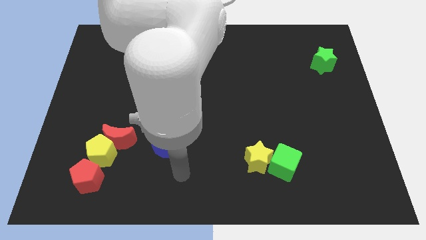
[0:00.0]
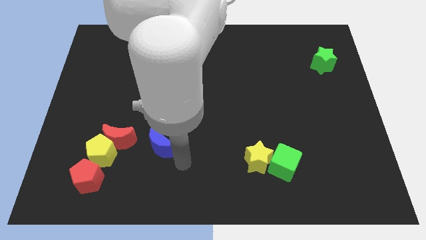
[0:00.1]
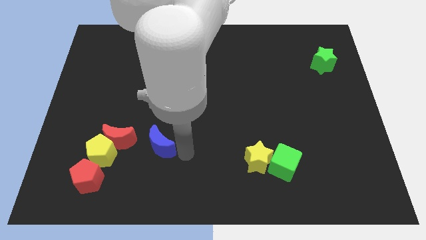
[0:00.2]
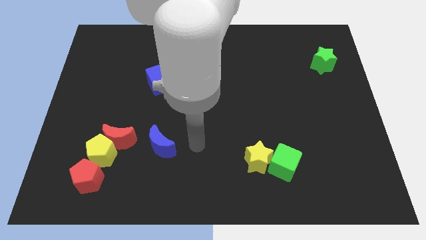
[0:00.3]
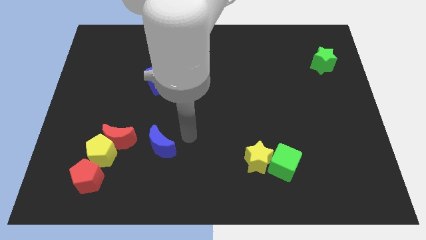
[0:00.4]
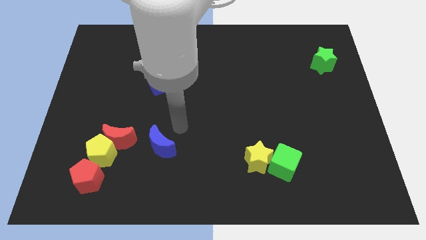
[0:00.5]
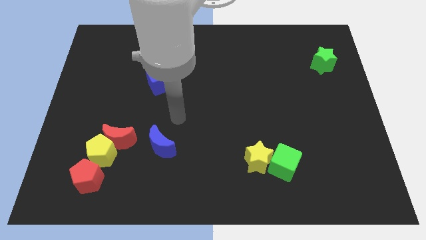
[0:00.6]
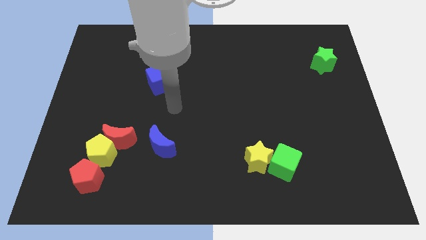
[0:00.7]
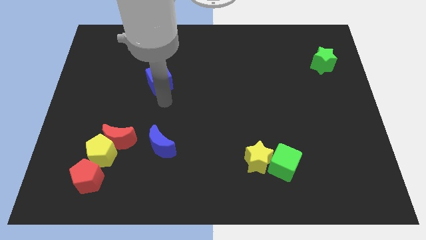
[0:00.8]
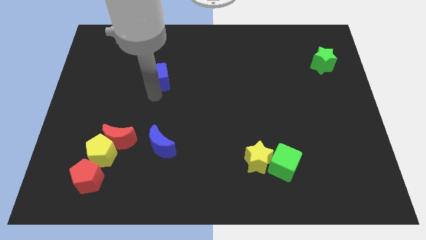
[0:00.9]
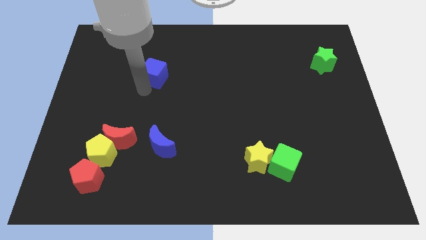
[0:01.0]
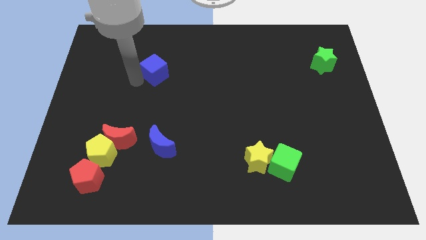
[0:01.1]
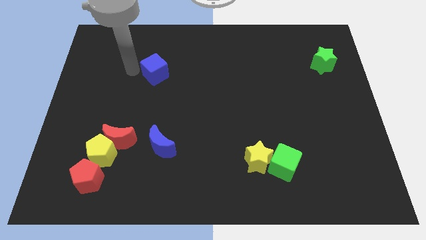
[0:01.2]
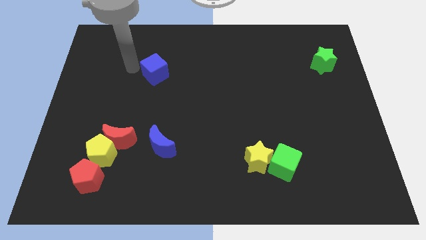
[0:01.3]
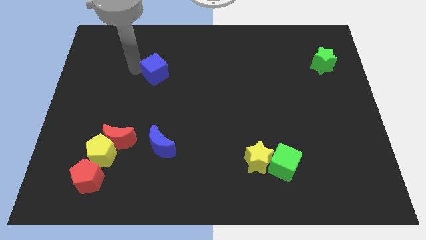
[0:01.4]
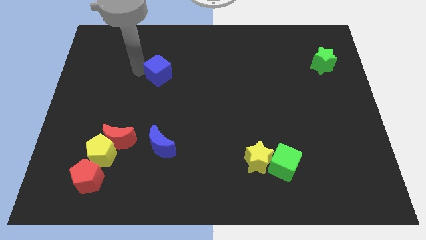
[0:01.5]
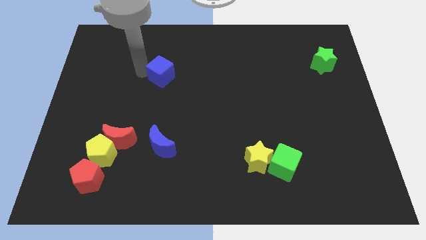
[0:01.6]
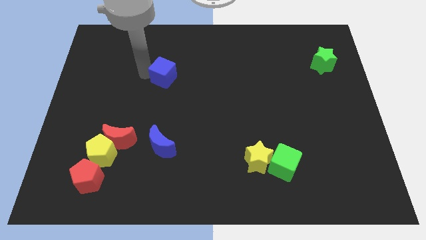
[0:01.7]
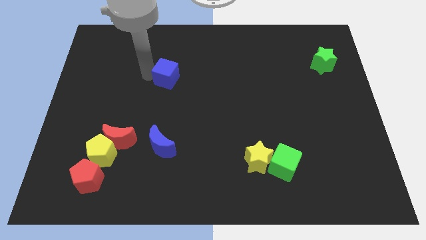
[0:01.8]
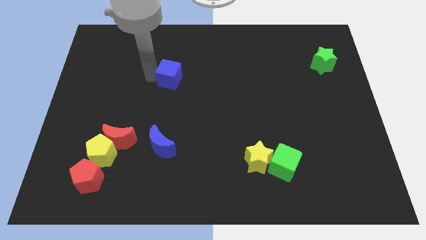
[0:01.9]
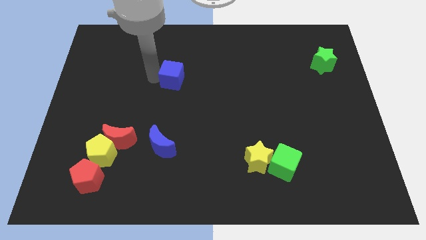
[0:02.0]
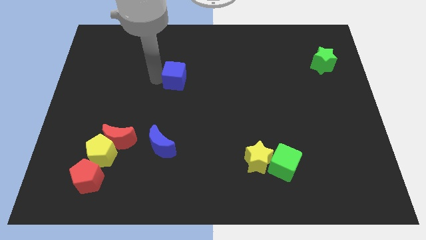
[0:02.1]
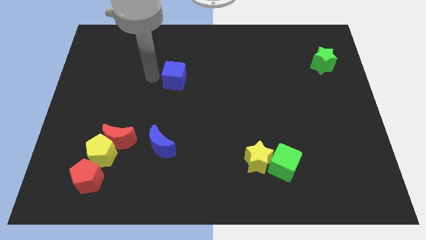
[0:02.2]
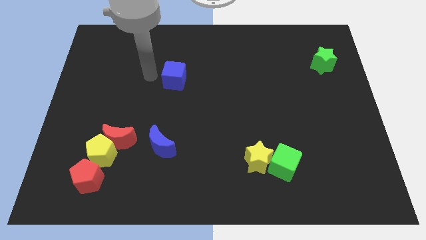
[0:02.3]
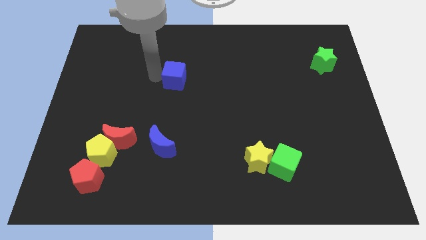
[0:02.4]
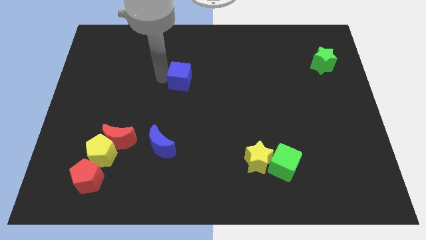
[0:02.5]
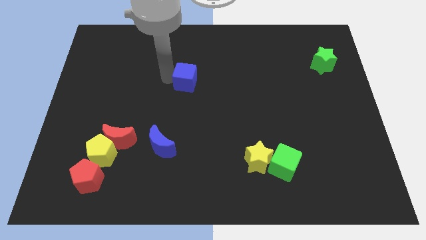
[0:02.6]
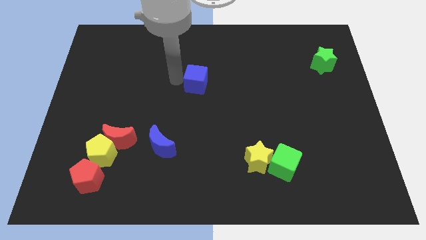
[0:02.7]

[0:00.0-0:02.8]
slightly push the blue cube right

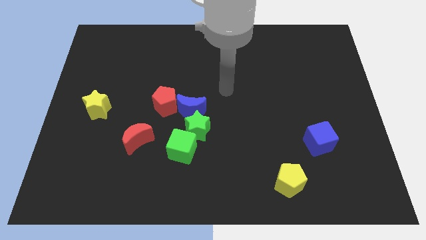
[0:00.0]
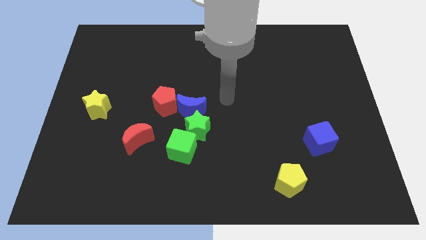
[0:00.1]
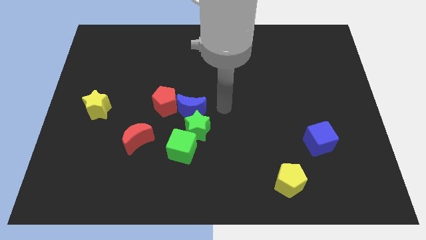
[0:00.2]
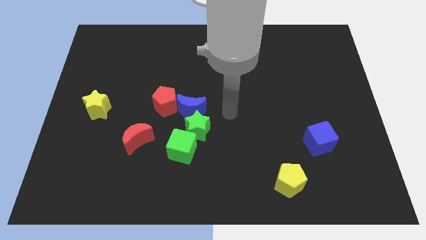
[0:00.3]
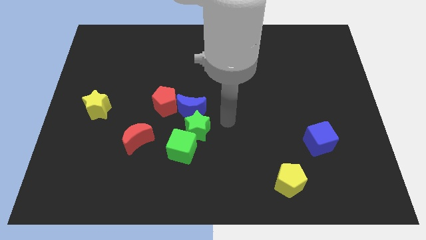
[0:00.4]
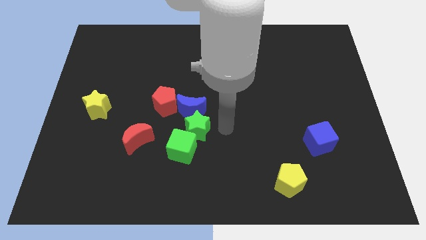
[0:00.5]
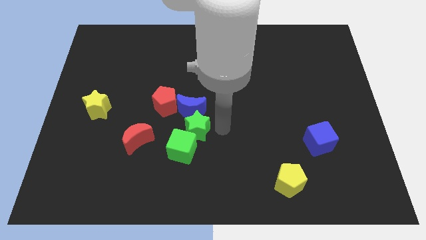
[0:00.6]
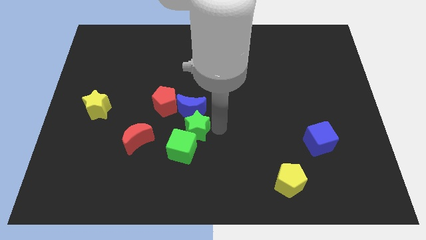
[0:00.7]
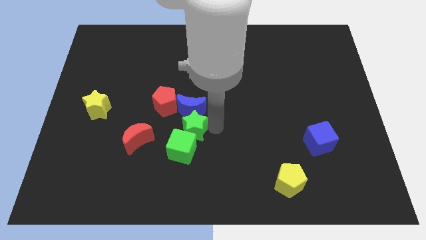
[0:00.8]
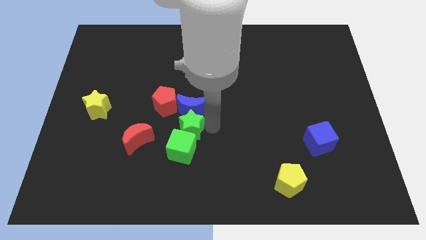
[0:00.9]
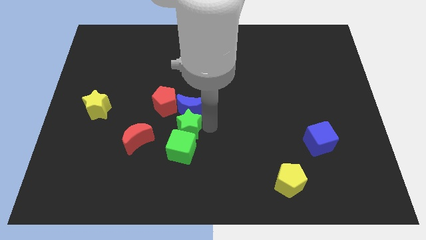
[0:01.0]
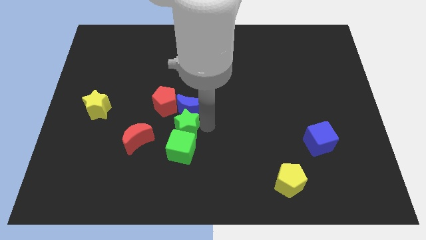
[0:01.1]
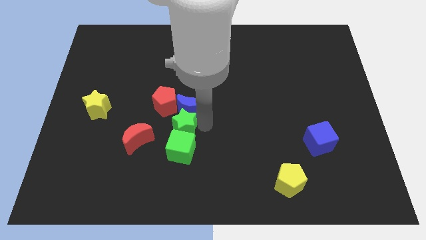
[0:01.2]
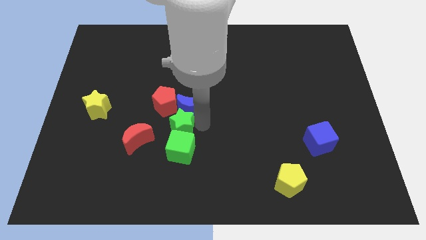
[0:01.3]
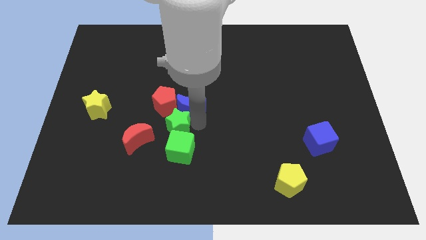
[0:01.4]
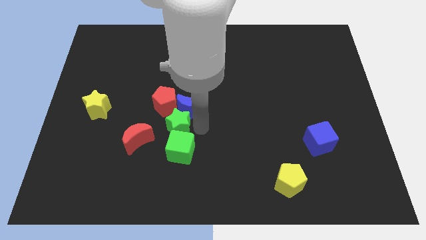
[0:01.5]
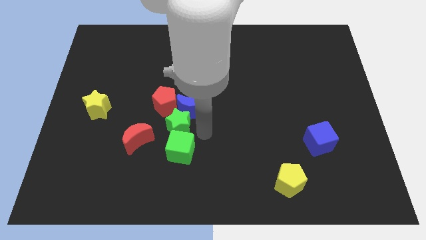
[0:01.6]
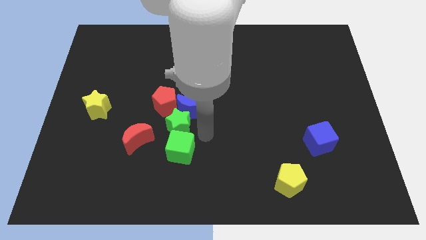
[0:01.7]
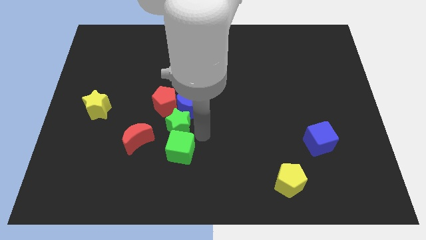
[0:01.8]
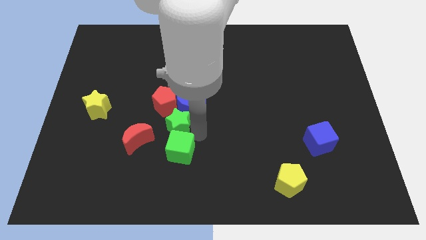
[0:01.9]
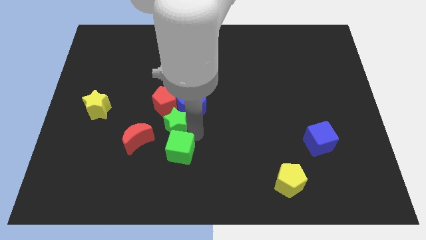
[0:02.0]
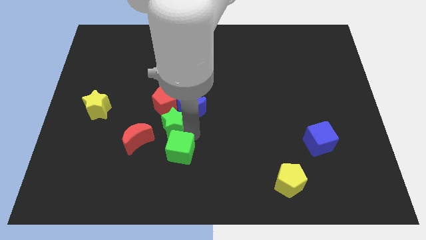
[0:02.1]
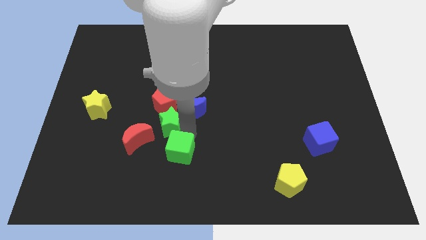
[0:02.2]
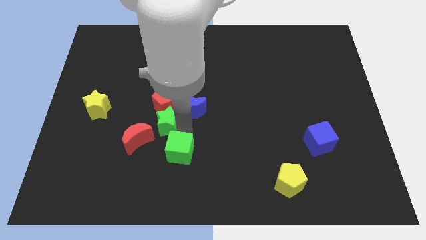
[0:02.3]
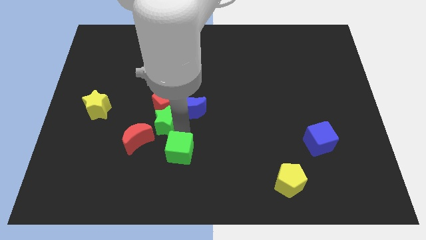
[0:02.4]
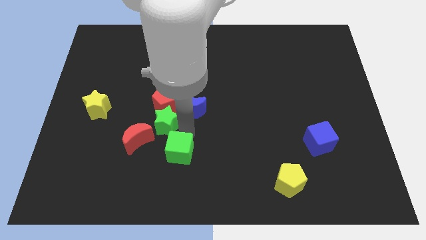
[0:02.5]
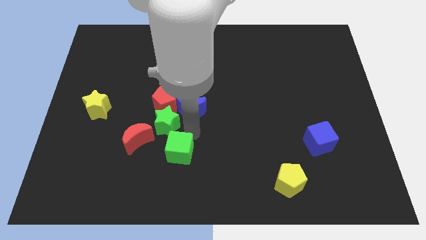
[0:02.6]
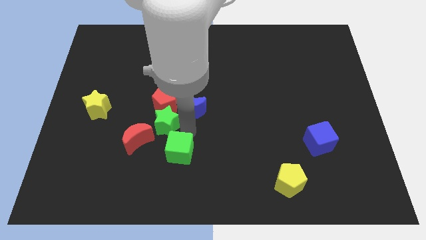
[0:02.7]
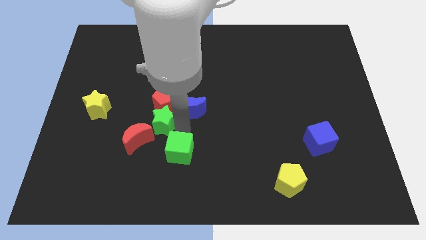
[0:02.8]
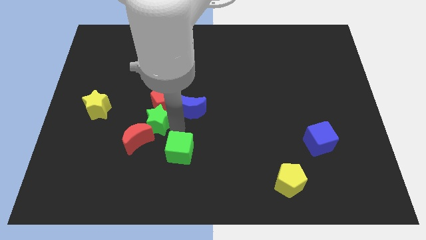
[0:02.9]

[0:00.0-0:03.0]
slightly push the green star up and to the left diagonally

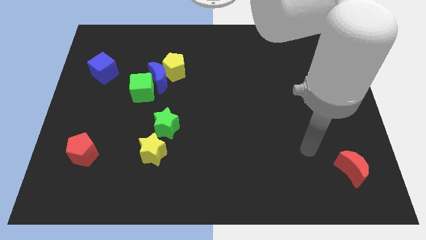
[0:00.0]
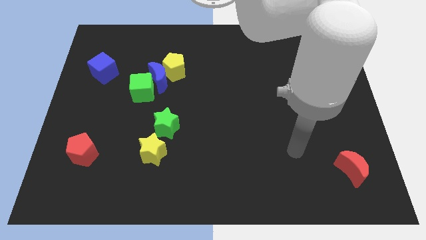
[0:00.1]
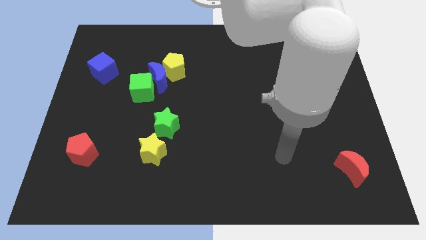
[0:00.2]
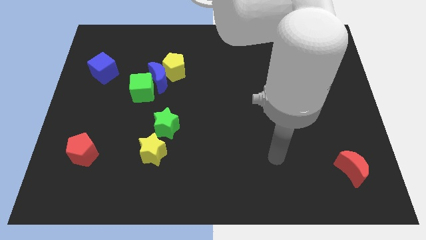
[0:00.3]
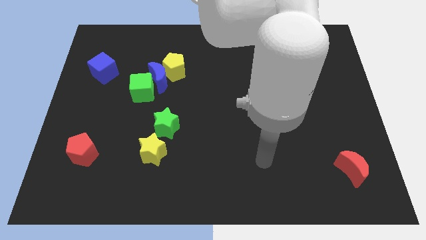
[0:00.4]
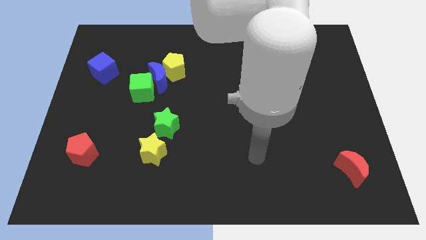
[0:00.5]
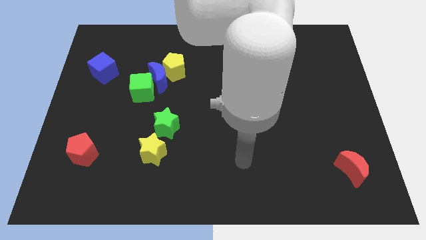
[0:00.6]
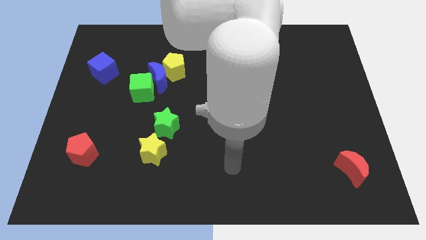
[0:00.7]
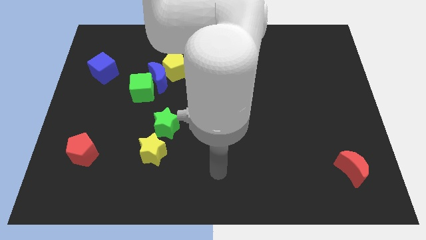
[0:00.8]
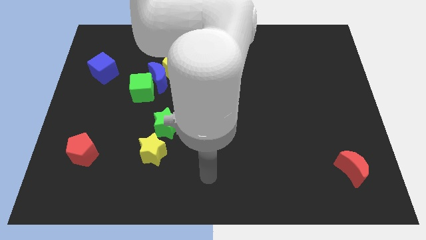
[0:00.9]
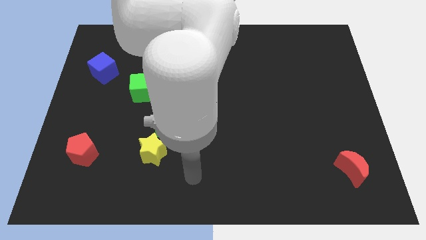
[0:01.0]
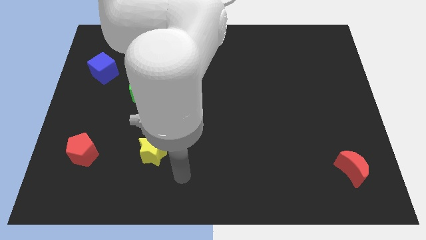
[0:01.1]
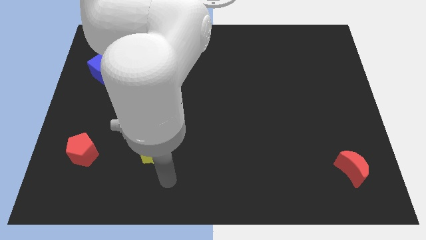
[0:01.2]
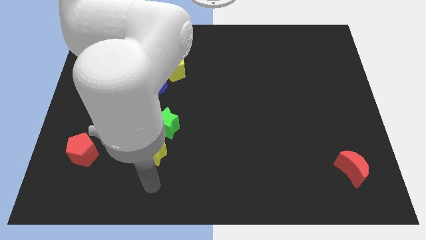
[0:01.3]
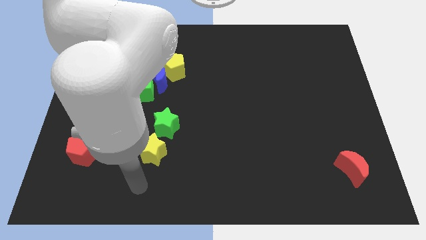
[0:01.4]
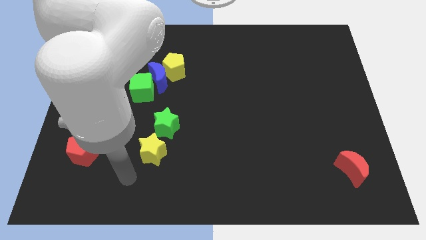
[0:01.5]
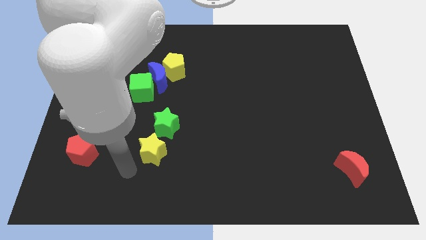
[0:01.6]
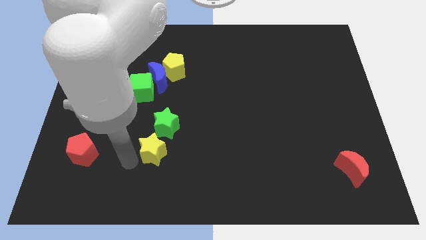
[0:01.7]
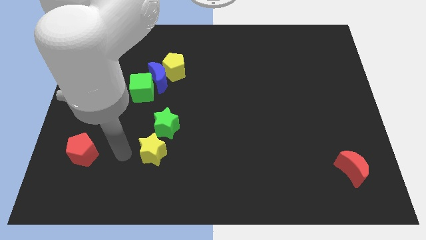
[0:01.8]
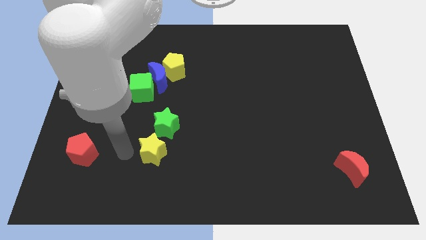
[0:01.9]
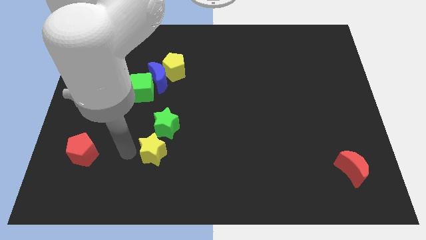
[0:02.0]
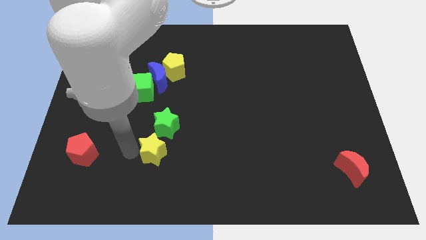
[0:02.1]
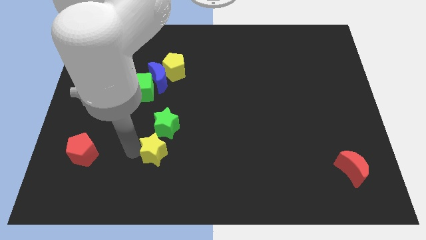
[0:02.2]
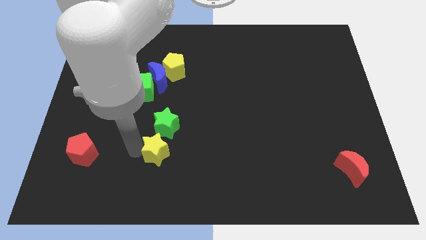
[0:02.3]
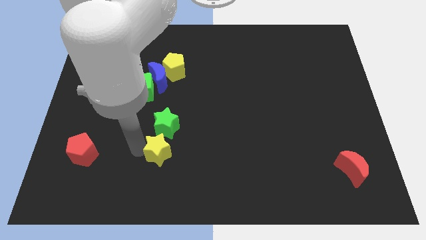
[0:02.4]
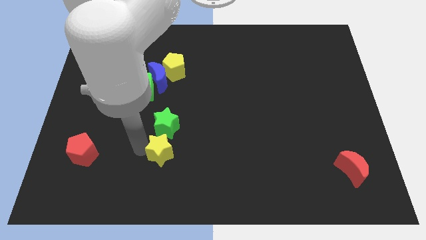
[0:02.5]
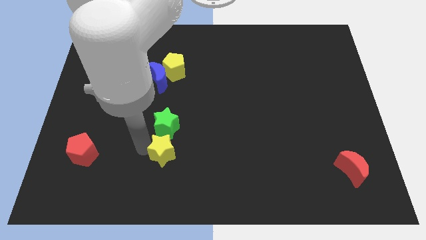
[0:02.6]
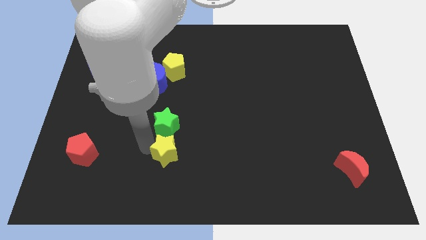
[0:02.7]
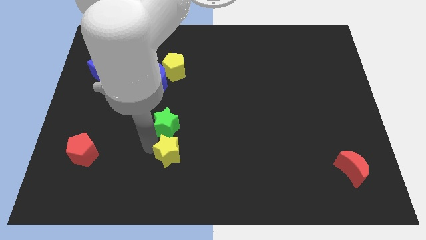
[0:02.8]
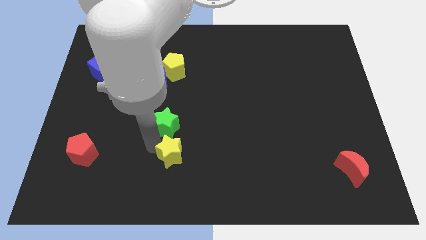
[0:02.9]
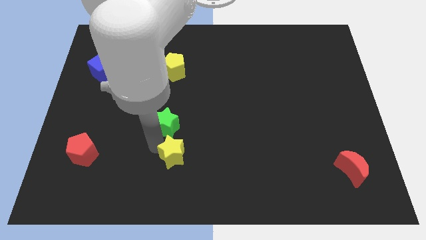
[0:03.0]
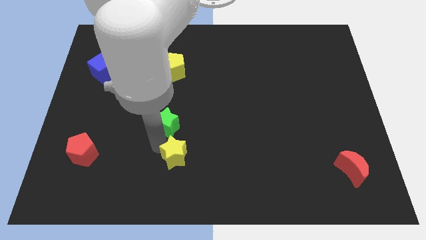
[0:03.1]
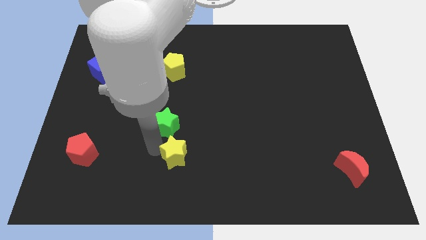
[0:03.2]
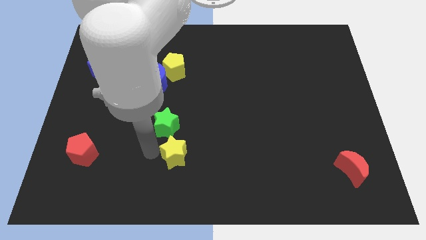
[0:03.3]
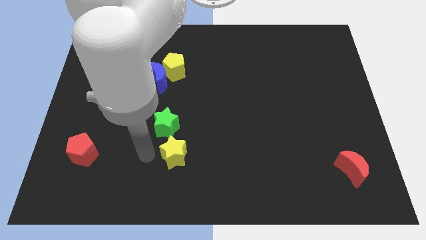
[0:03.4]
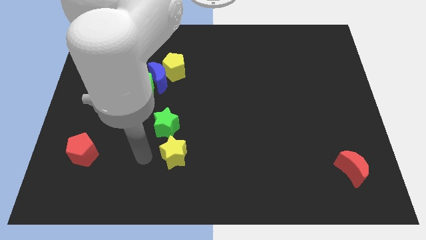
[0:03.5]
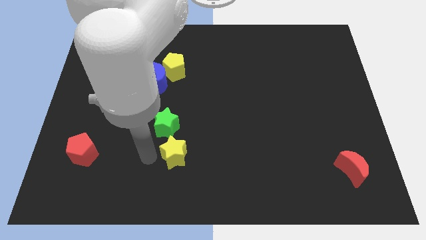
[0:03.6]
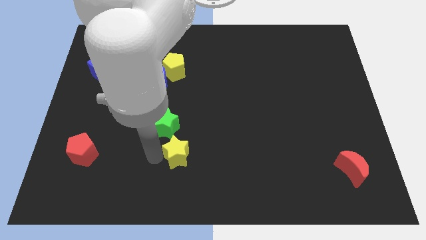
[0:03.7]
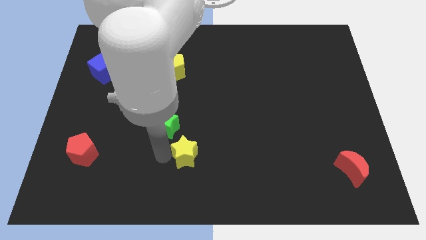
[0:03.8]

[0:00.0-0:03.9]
push the yellow star a little bit right
